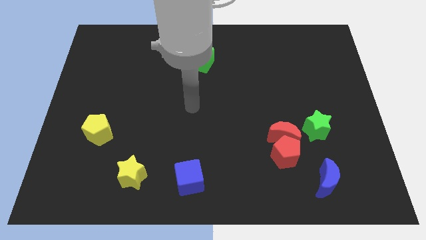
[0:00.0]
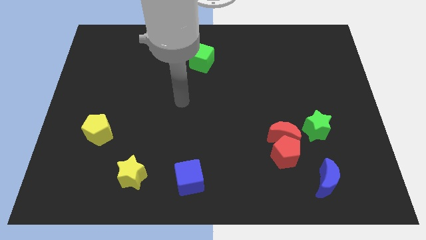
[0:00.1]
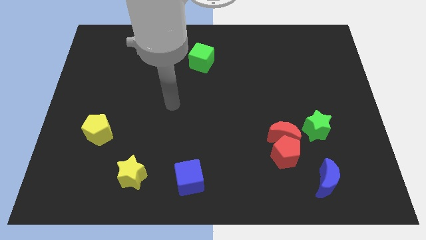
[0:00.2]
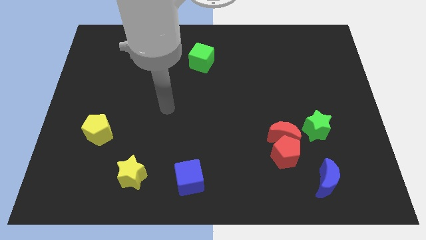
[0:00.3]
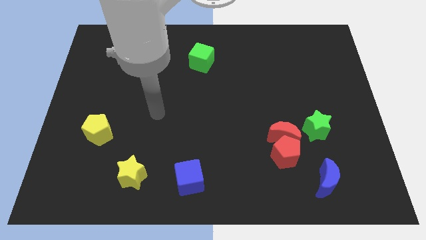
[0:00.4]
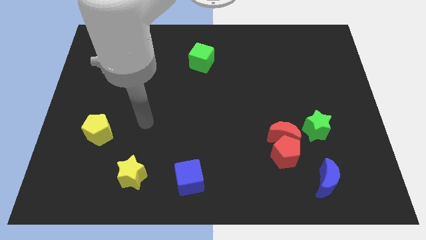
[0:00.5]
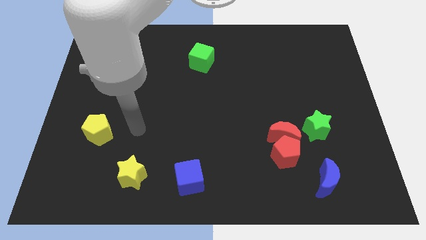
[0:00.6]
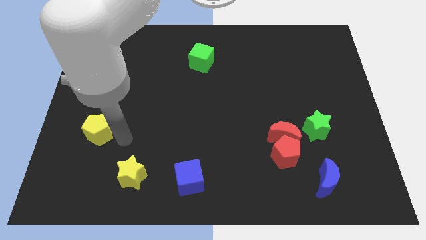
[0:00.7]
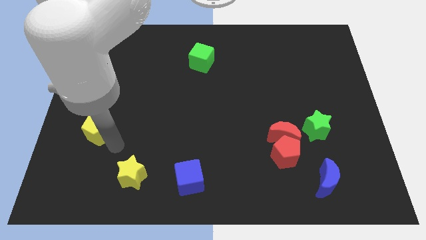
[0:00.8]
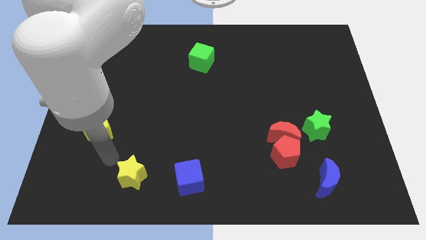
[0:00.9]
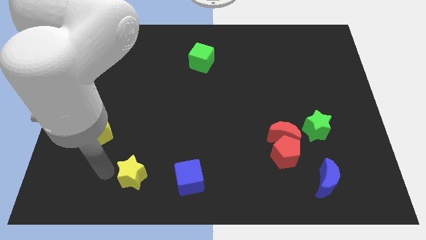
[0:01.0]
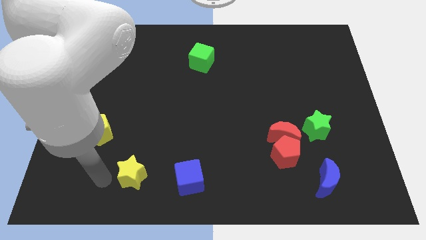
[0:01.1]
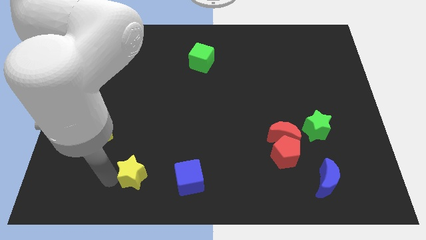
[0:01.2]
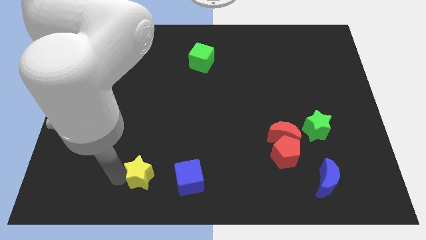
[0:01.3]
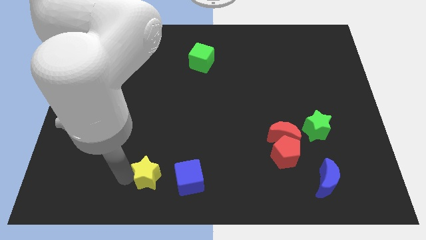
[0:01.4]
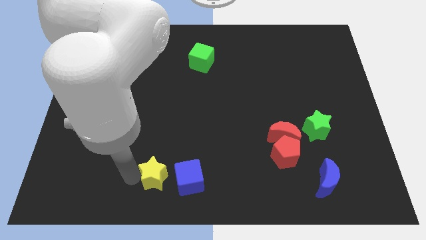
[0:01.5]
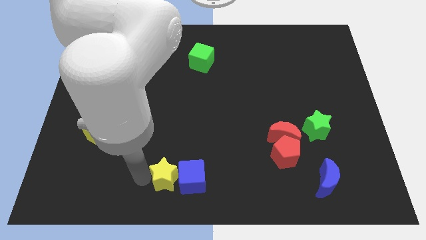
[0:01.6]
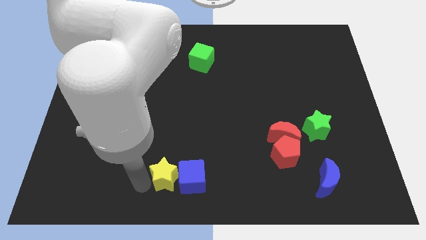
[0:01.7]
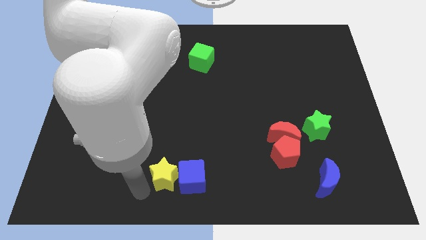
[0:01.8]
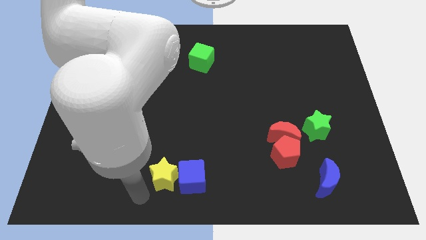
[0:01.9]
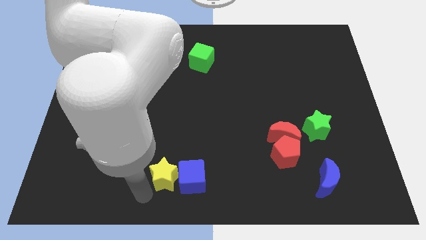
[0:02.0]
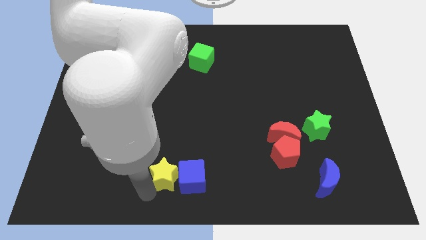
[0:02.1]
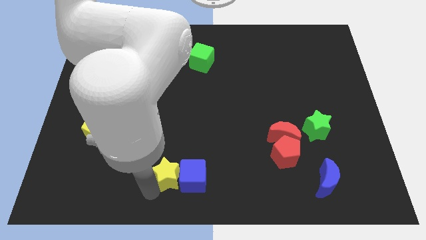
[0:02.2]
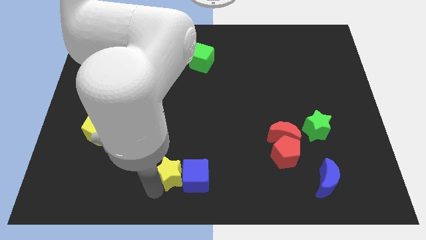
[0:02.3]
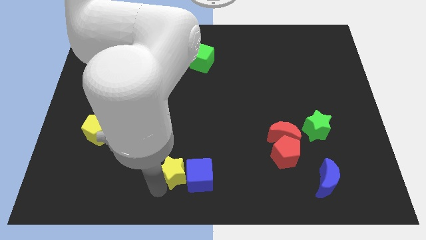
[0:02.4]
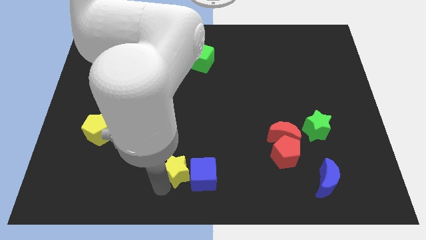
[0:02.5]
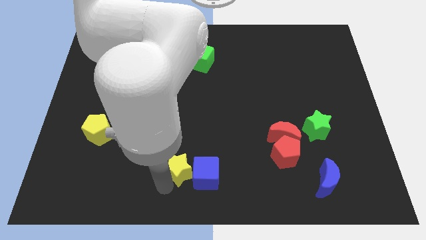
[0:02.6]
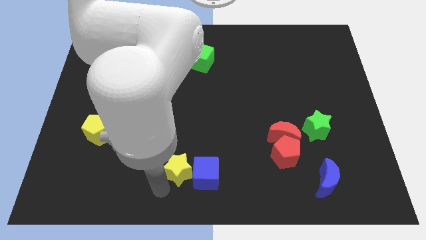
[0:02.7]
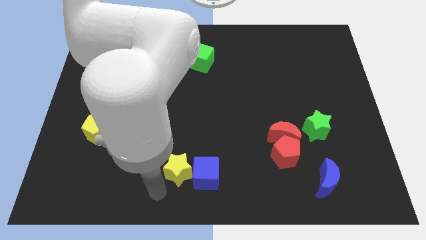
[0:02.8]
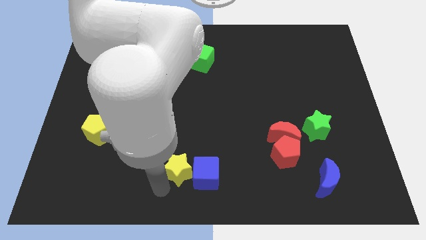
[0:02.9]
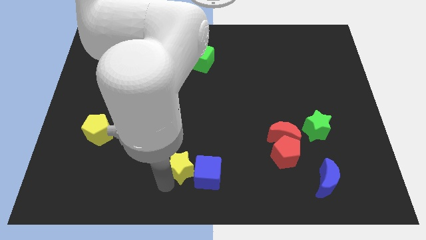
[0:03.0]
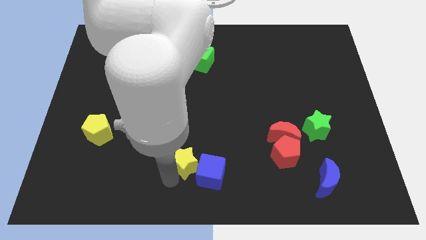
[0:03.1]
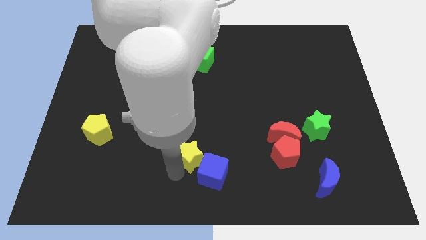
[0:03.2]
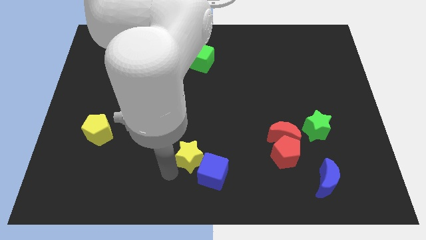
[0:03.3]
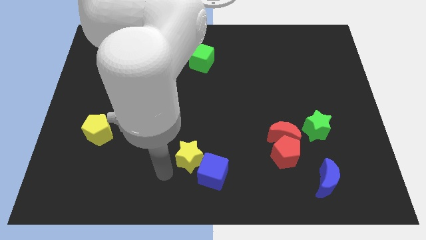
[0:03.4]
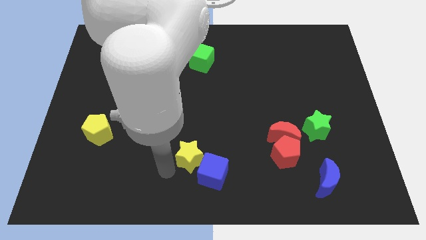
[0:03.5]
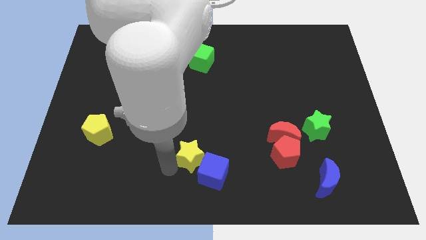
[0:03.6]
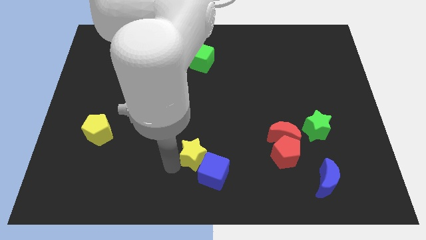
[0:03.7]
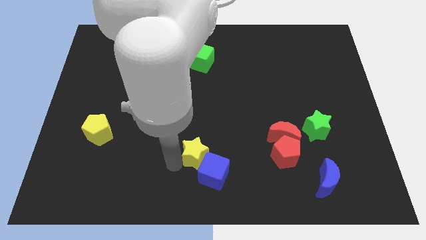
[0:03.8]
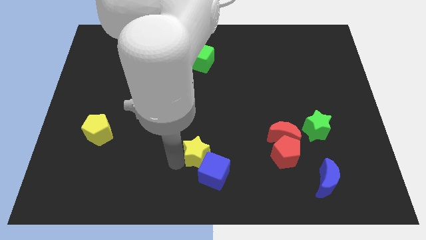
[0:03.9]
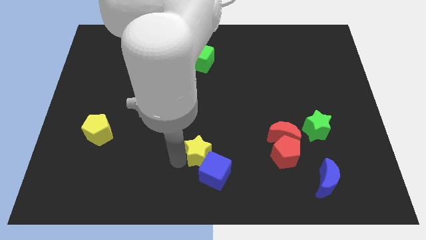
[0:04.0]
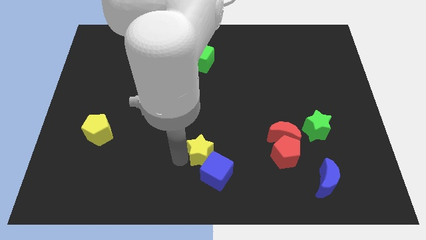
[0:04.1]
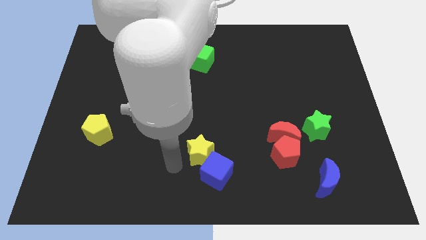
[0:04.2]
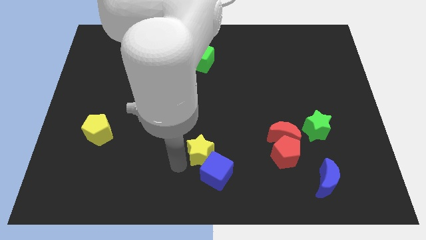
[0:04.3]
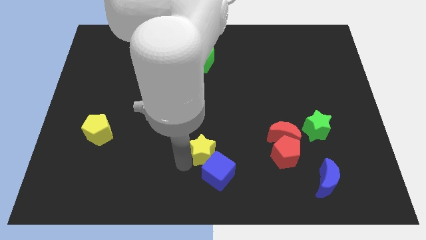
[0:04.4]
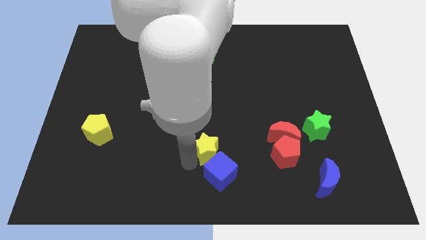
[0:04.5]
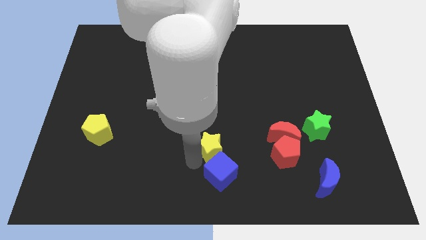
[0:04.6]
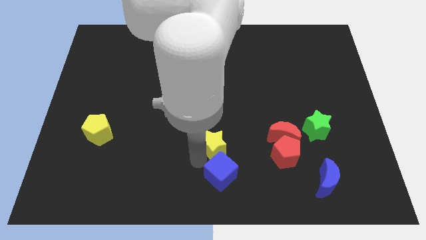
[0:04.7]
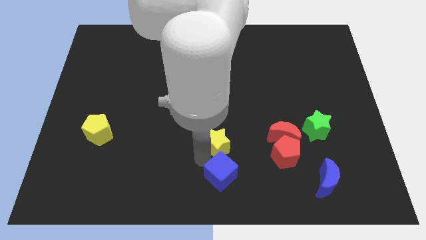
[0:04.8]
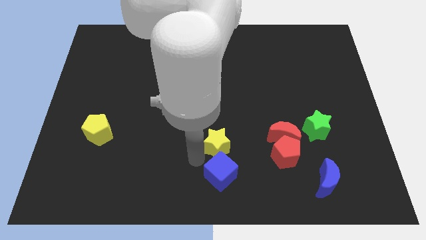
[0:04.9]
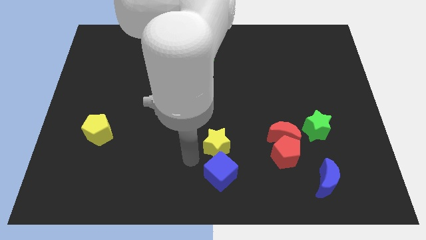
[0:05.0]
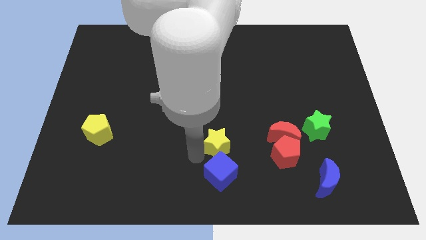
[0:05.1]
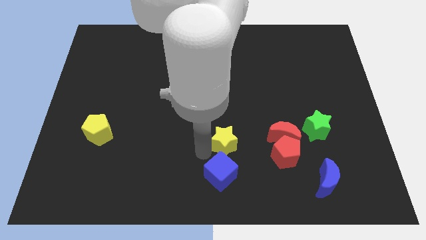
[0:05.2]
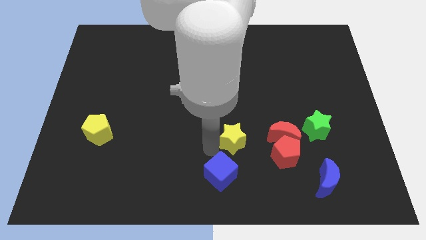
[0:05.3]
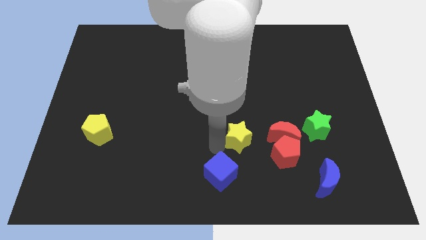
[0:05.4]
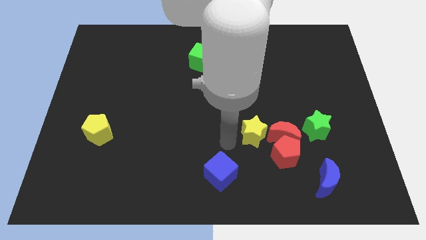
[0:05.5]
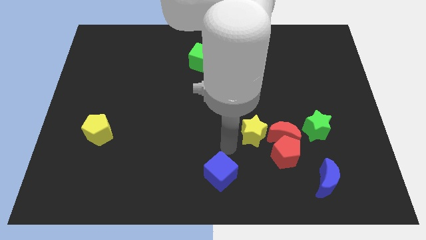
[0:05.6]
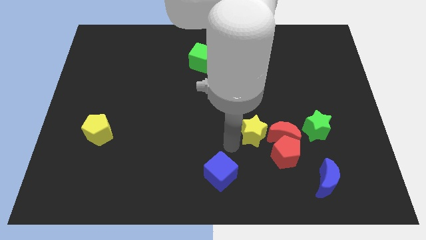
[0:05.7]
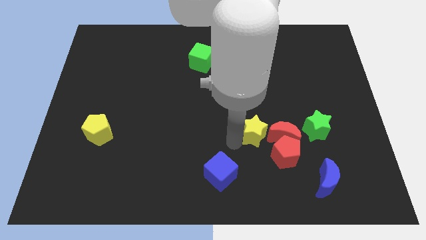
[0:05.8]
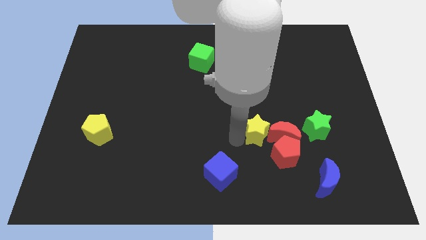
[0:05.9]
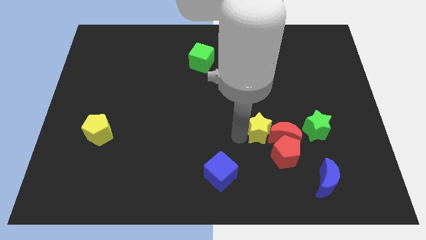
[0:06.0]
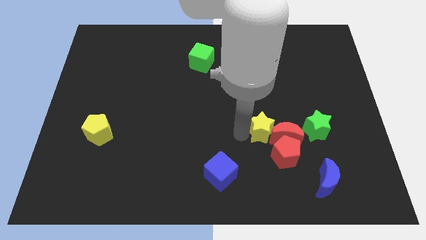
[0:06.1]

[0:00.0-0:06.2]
move the yellow star to the top side of the red pentagon

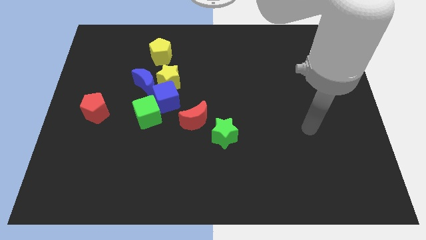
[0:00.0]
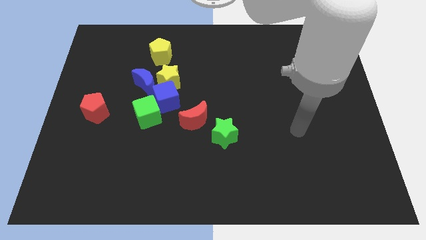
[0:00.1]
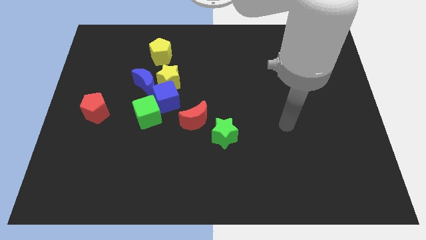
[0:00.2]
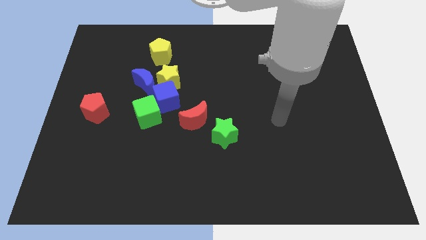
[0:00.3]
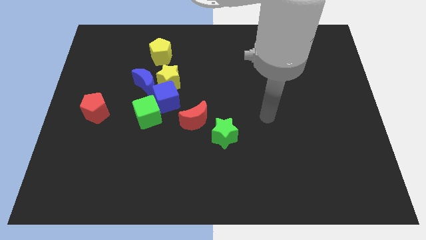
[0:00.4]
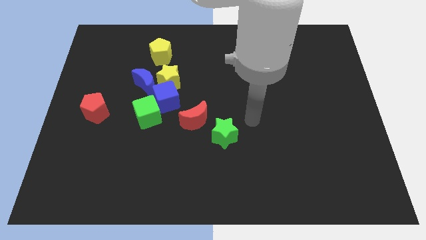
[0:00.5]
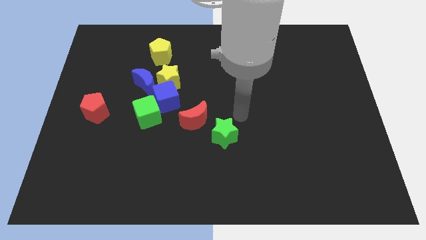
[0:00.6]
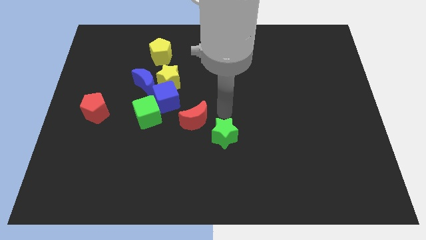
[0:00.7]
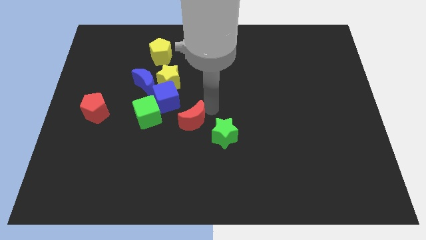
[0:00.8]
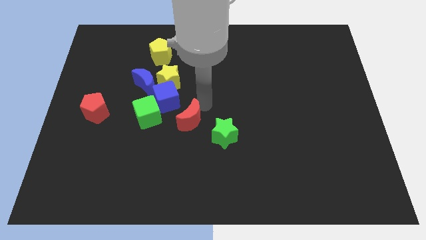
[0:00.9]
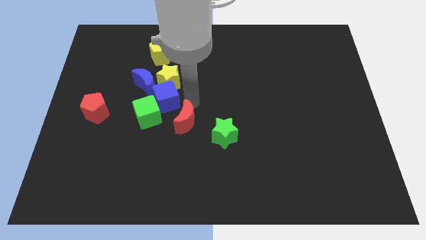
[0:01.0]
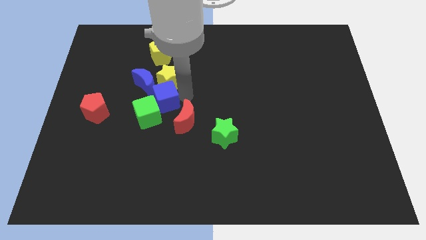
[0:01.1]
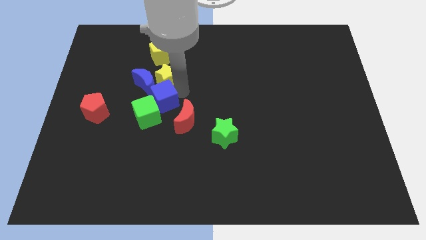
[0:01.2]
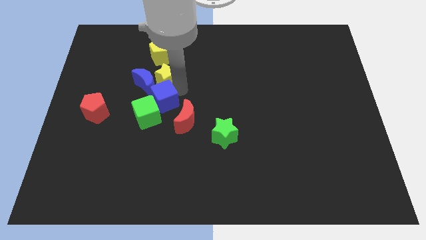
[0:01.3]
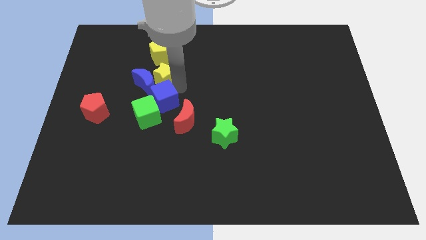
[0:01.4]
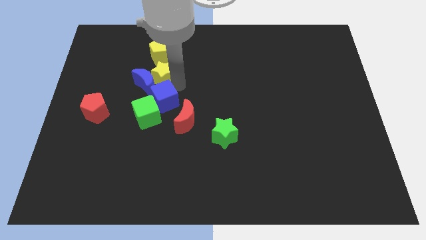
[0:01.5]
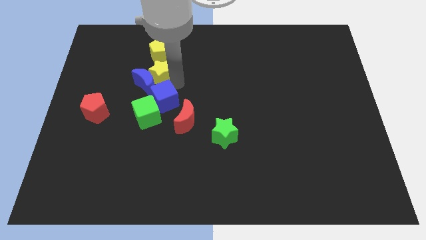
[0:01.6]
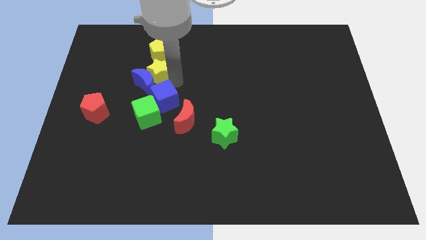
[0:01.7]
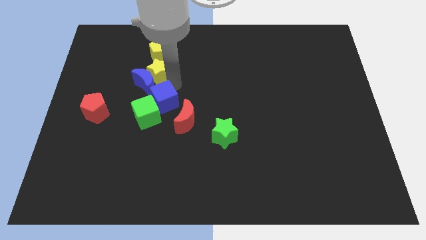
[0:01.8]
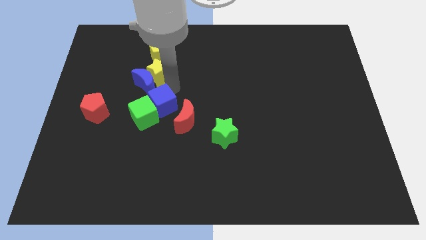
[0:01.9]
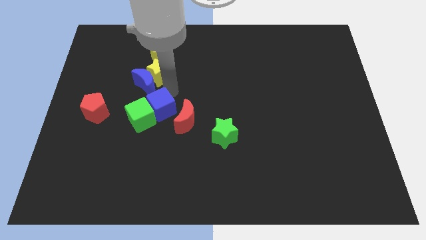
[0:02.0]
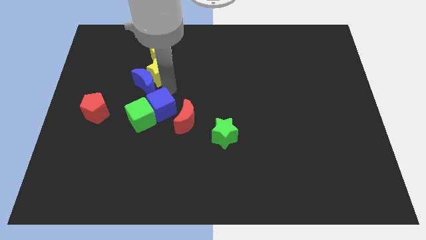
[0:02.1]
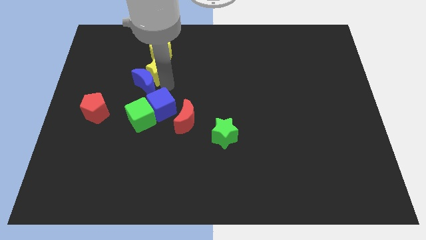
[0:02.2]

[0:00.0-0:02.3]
slide the yellow star diagonally down and to the left of the yellow pentagon

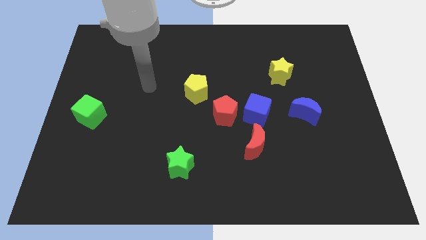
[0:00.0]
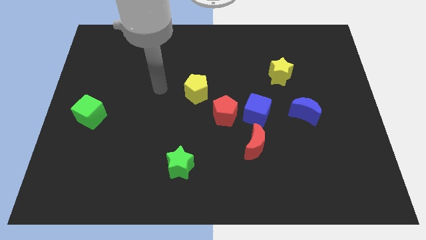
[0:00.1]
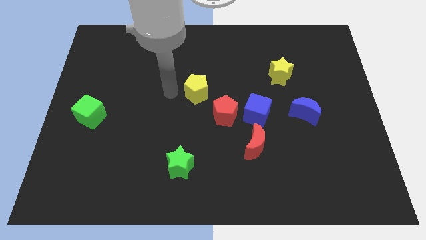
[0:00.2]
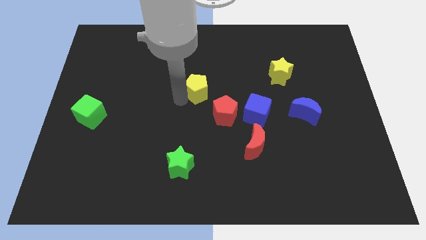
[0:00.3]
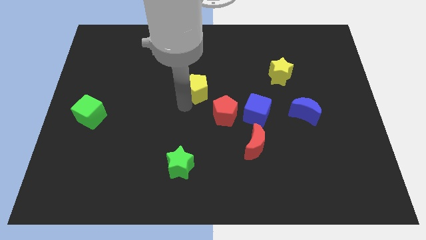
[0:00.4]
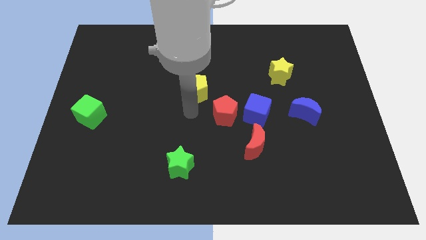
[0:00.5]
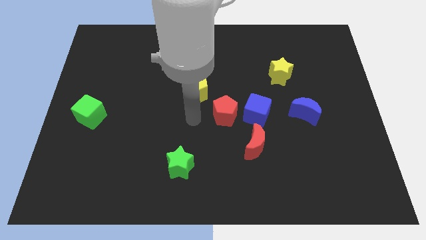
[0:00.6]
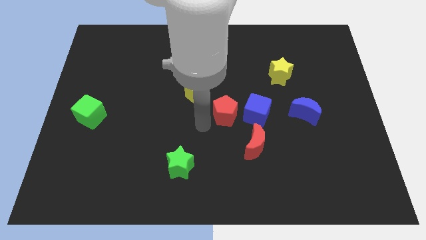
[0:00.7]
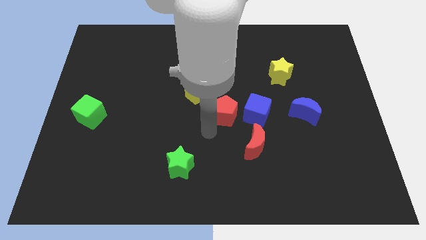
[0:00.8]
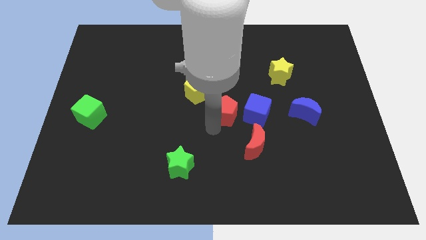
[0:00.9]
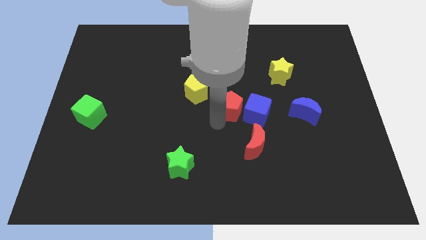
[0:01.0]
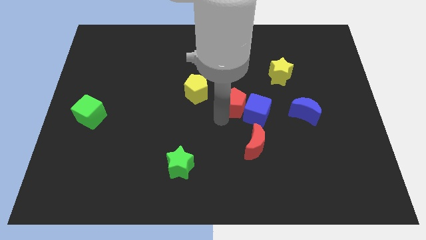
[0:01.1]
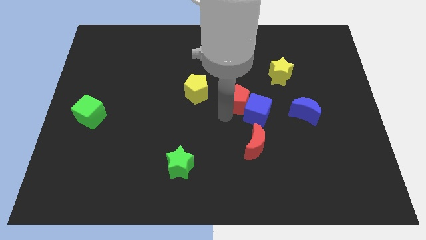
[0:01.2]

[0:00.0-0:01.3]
move the red pentagon to the top side of the blue cube
